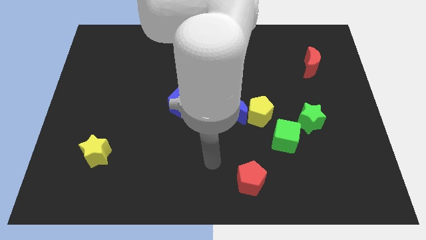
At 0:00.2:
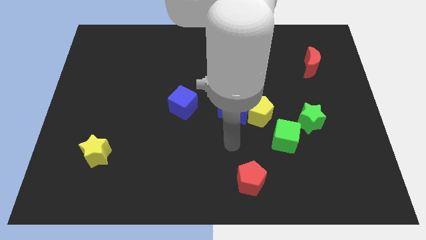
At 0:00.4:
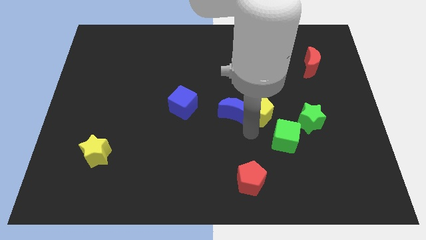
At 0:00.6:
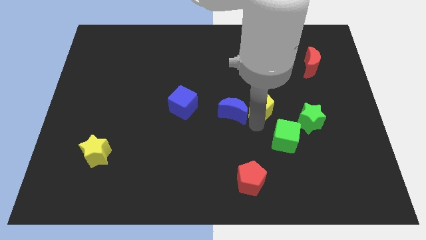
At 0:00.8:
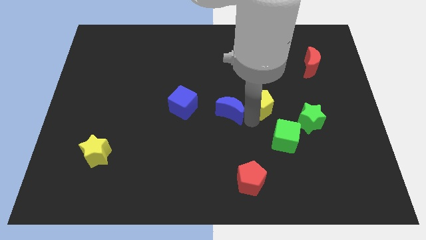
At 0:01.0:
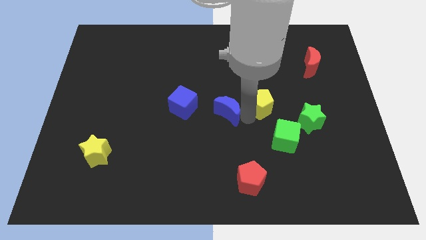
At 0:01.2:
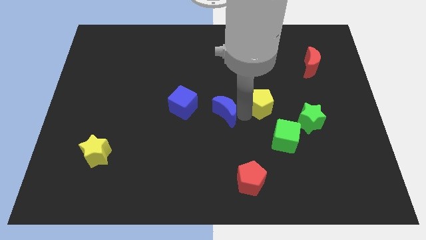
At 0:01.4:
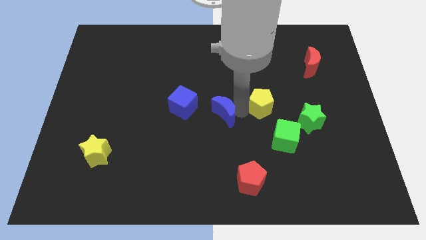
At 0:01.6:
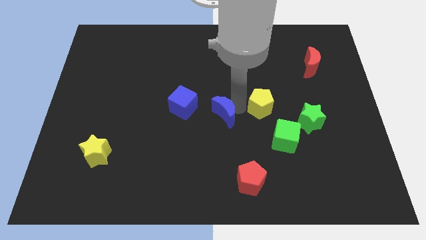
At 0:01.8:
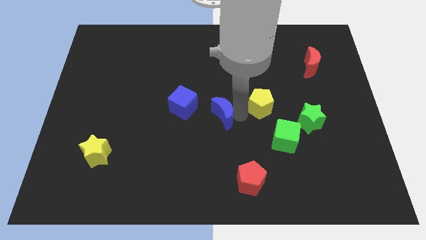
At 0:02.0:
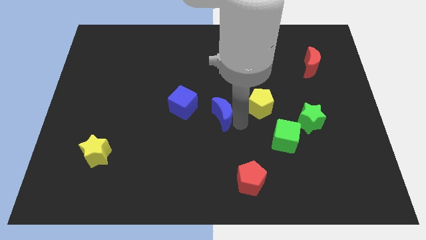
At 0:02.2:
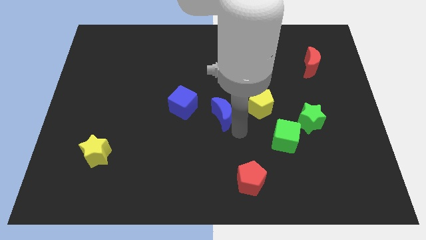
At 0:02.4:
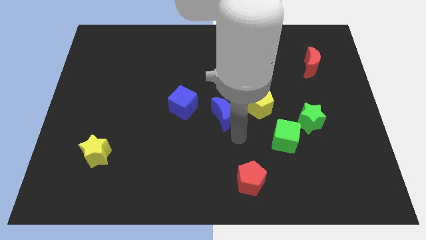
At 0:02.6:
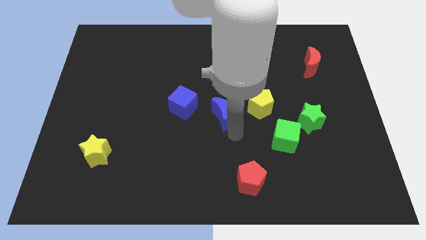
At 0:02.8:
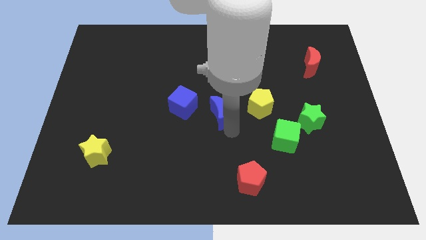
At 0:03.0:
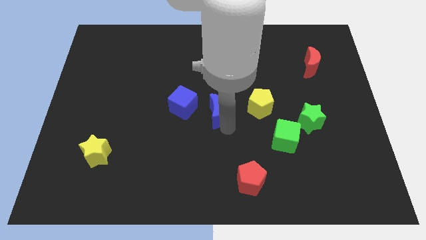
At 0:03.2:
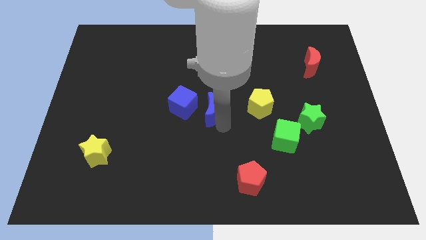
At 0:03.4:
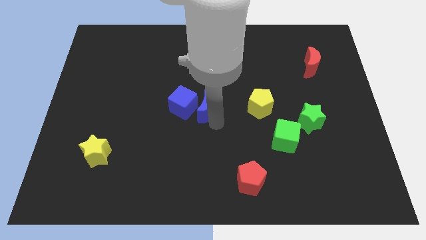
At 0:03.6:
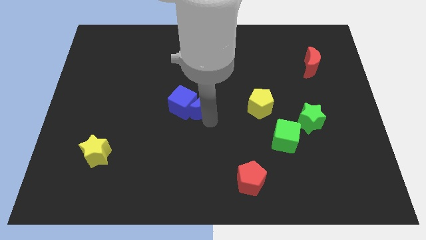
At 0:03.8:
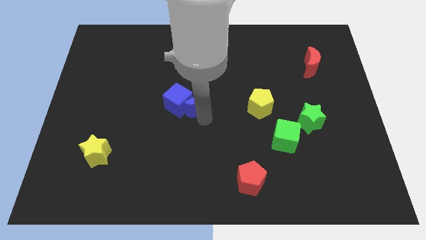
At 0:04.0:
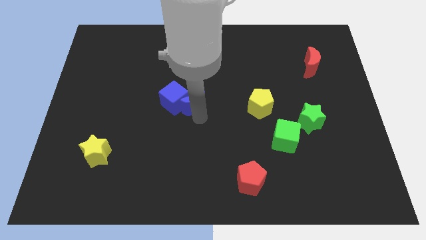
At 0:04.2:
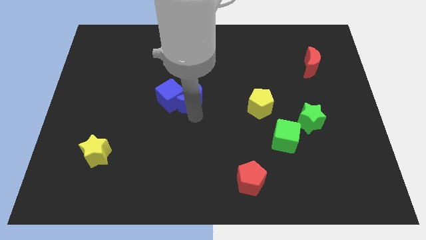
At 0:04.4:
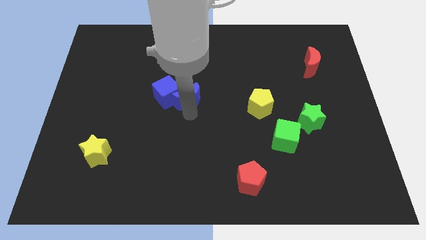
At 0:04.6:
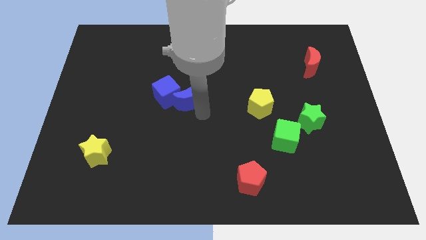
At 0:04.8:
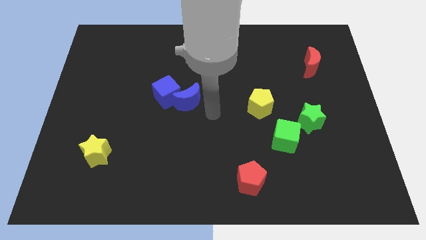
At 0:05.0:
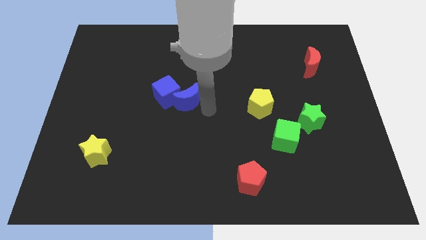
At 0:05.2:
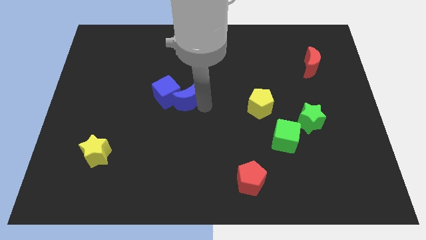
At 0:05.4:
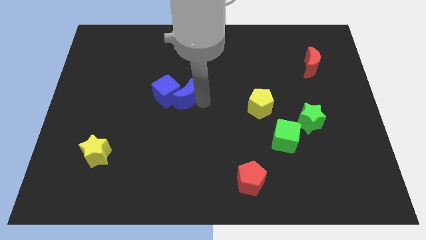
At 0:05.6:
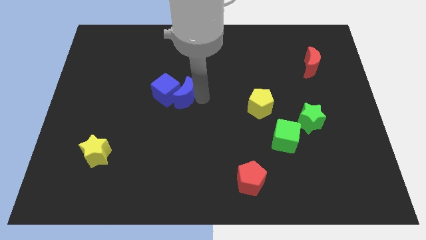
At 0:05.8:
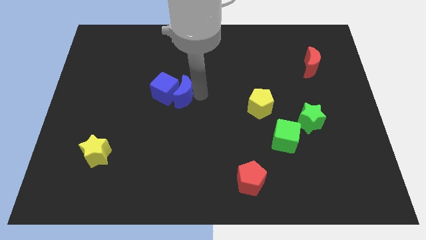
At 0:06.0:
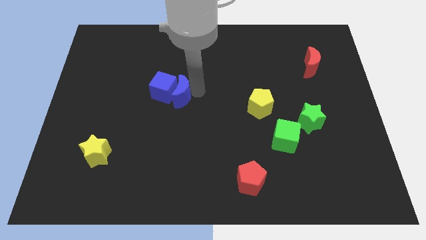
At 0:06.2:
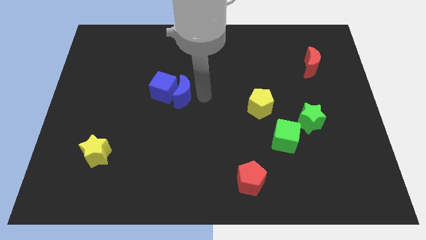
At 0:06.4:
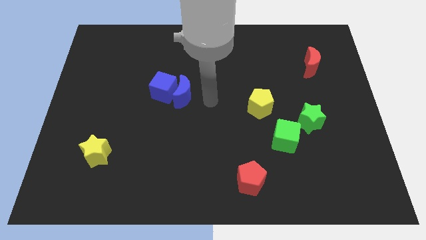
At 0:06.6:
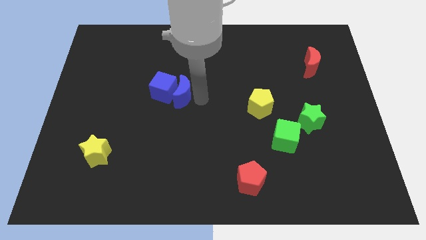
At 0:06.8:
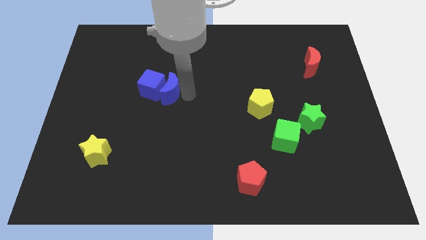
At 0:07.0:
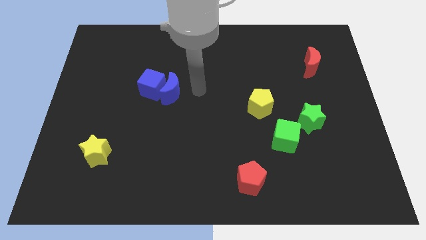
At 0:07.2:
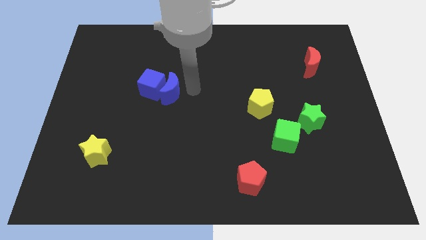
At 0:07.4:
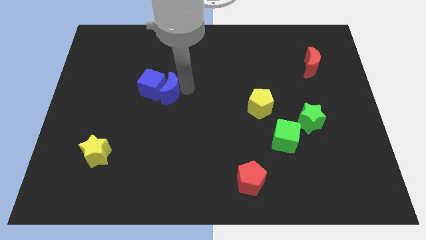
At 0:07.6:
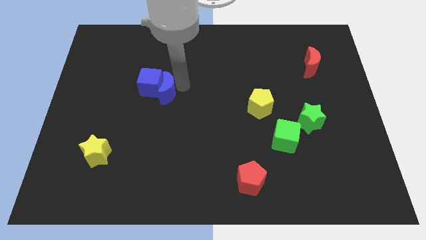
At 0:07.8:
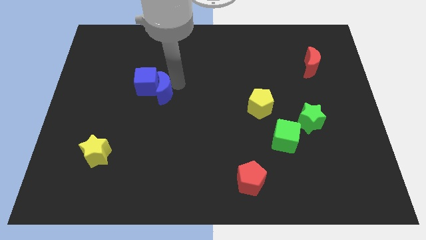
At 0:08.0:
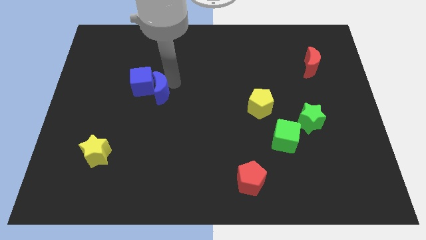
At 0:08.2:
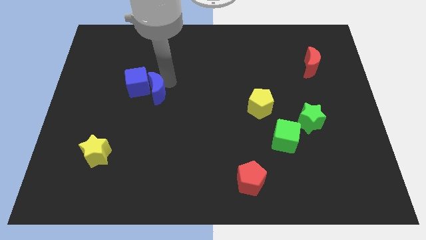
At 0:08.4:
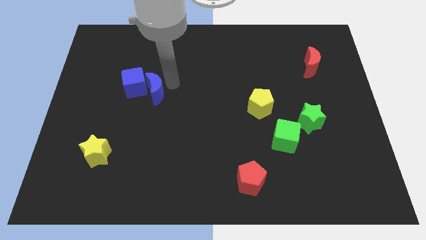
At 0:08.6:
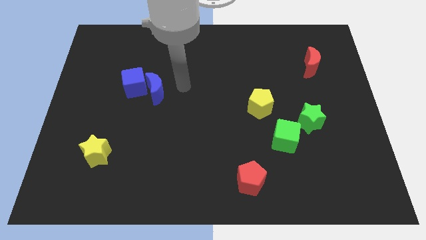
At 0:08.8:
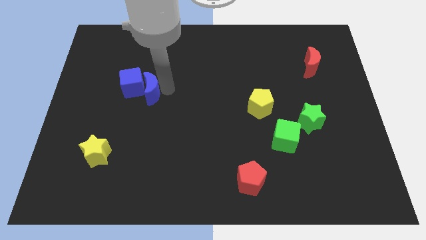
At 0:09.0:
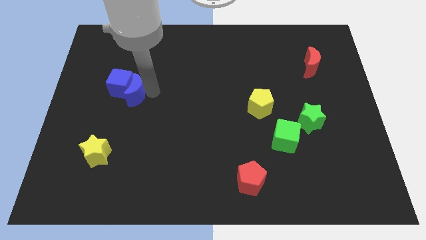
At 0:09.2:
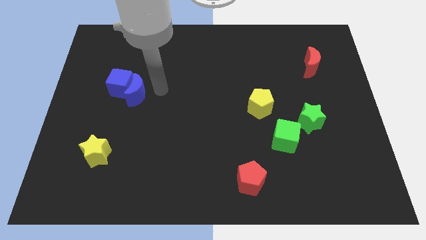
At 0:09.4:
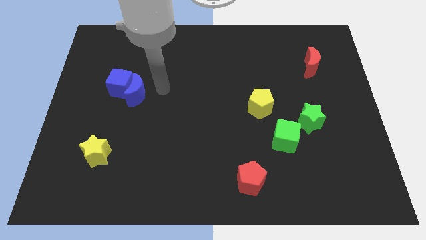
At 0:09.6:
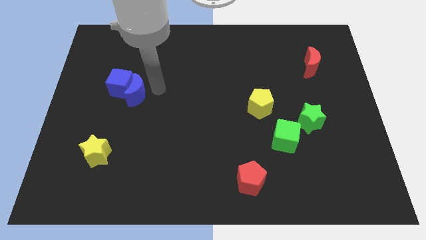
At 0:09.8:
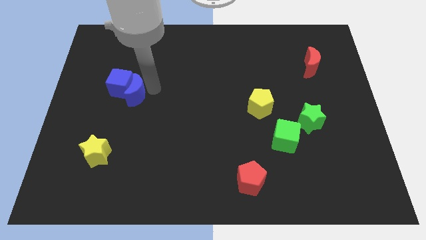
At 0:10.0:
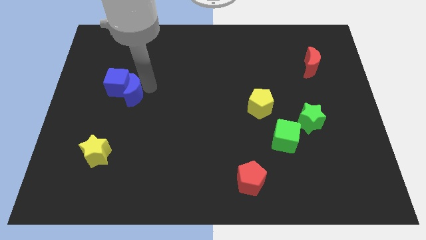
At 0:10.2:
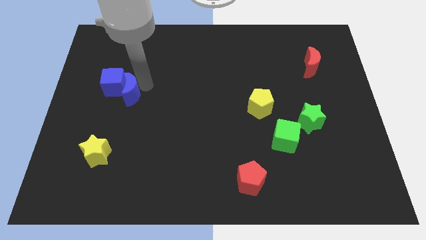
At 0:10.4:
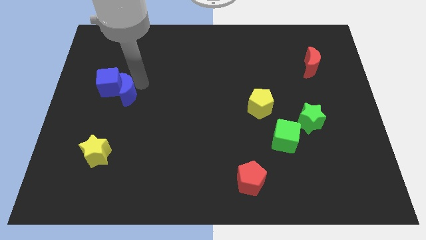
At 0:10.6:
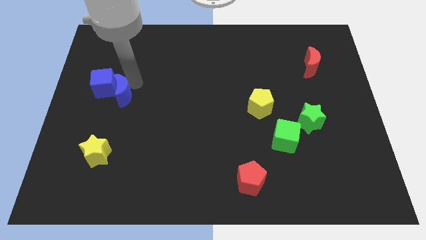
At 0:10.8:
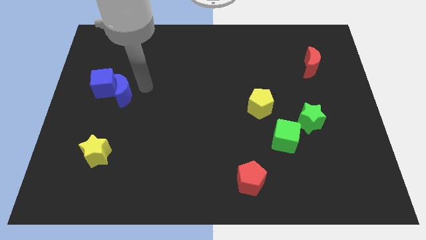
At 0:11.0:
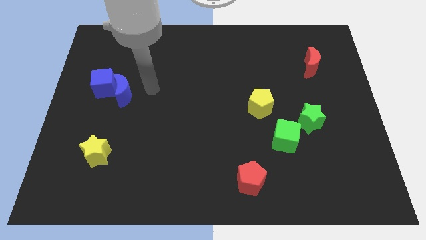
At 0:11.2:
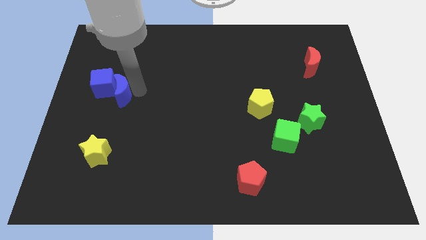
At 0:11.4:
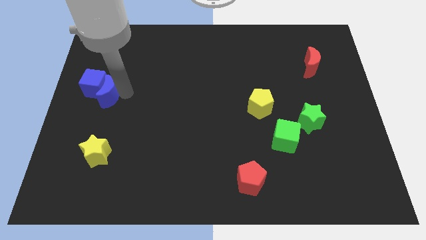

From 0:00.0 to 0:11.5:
slide the blue moon to the left side of the board

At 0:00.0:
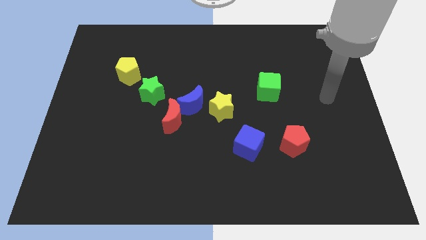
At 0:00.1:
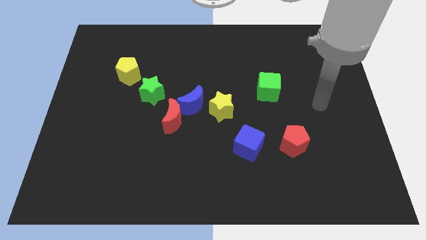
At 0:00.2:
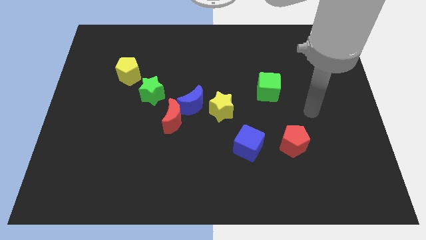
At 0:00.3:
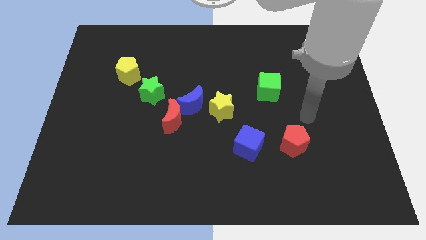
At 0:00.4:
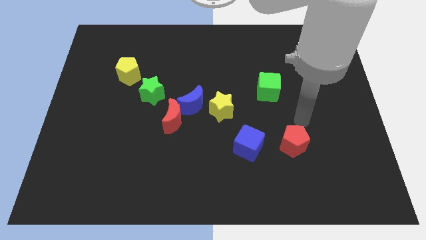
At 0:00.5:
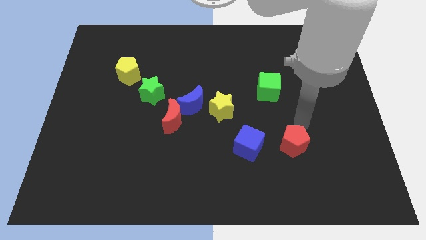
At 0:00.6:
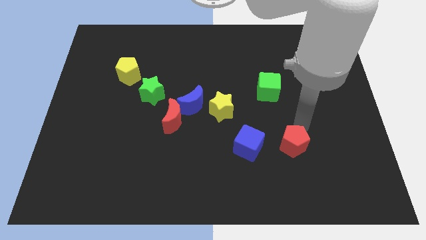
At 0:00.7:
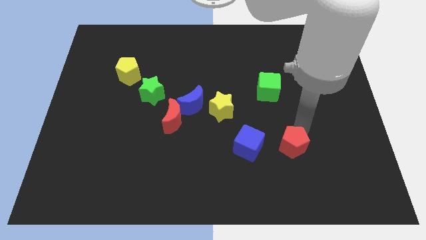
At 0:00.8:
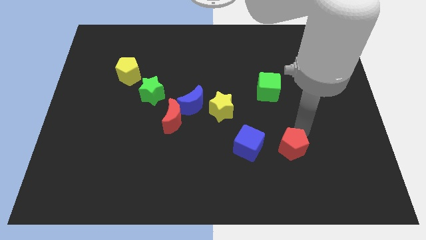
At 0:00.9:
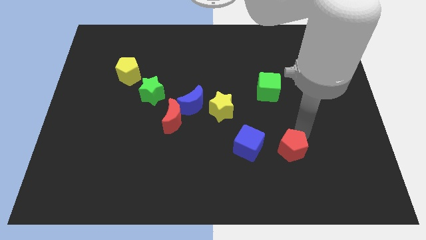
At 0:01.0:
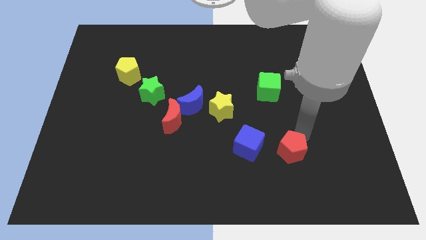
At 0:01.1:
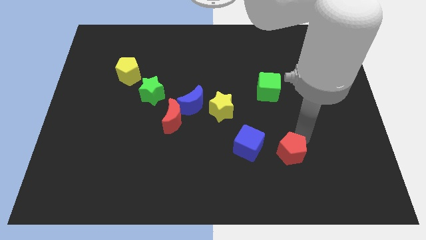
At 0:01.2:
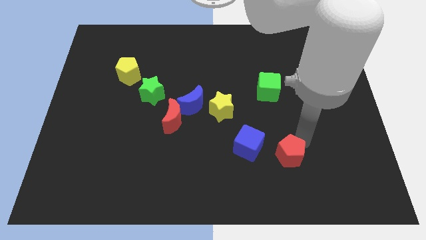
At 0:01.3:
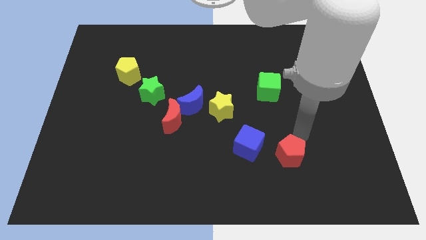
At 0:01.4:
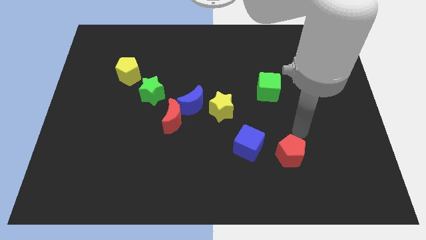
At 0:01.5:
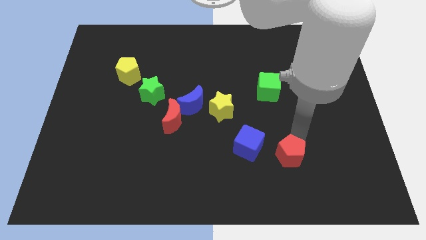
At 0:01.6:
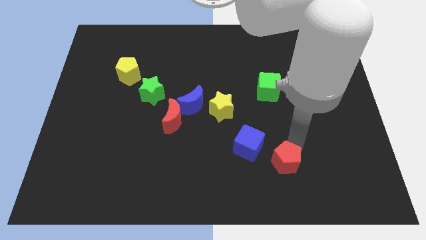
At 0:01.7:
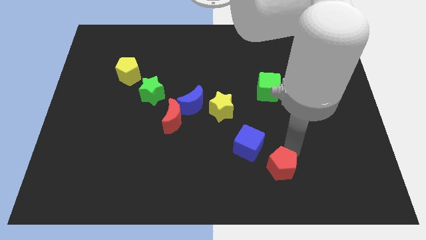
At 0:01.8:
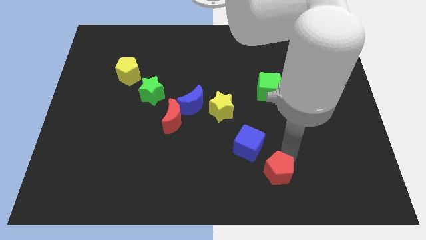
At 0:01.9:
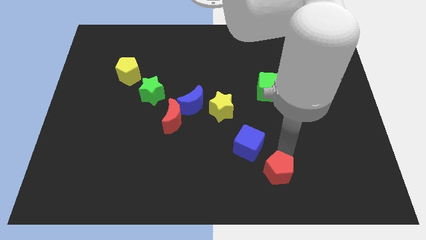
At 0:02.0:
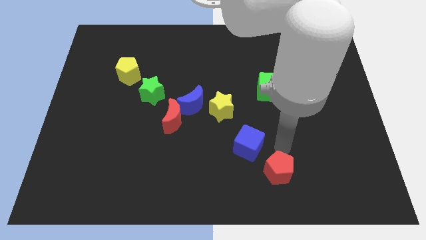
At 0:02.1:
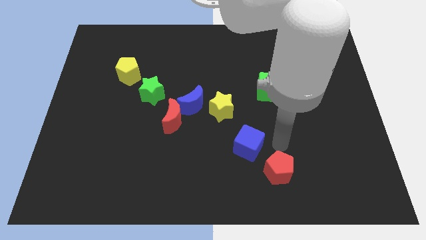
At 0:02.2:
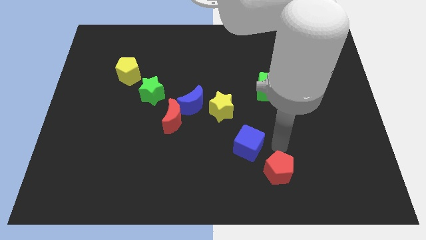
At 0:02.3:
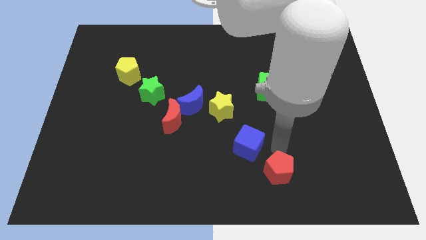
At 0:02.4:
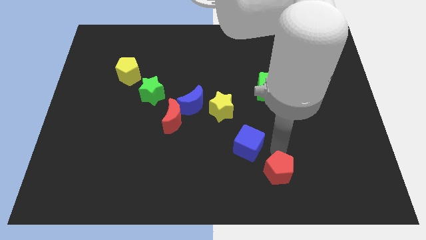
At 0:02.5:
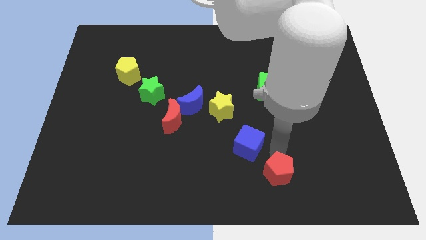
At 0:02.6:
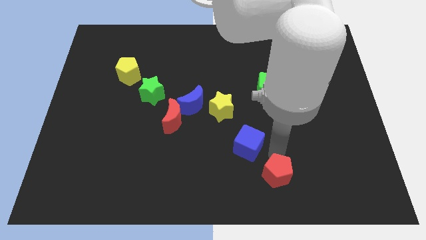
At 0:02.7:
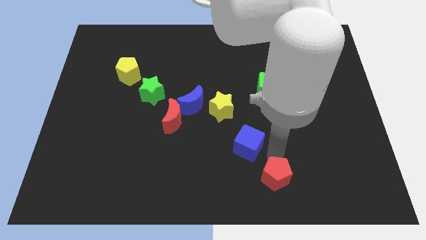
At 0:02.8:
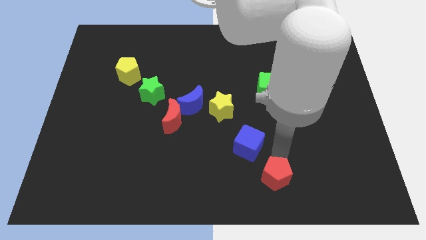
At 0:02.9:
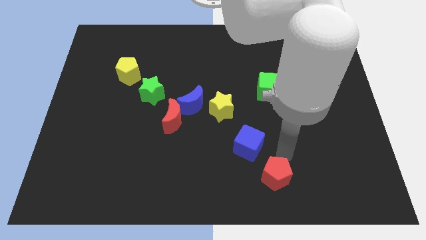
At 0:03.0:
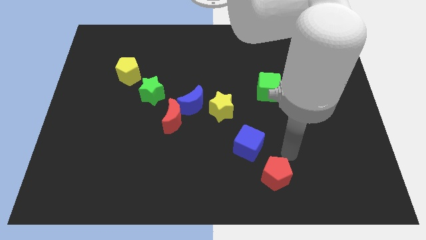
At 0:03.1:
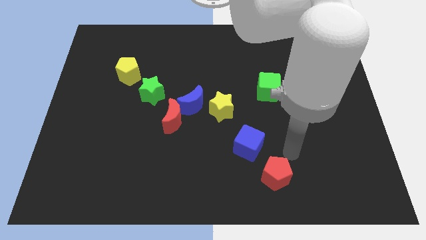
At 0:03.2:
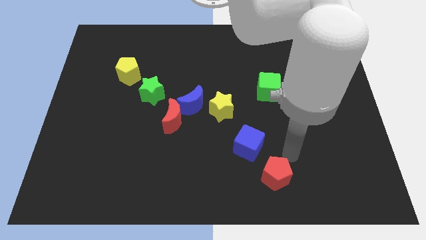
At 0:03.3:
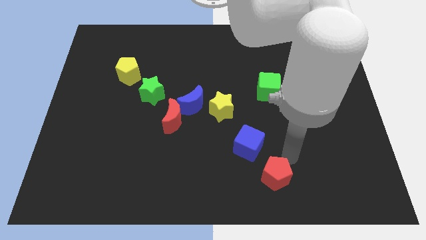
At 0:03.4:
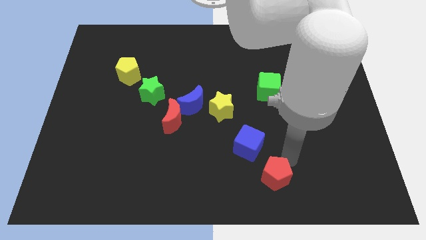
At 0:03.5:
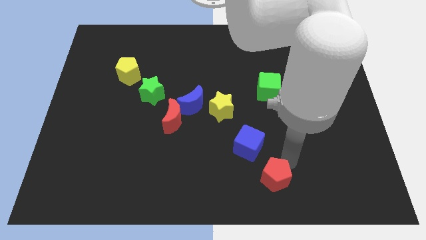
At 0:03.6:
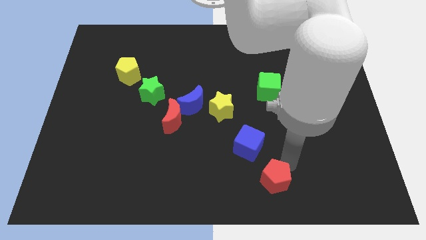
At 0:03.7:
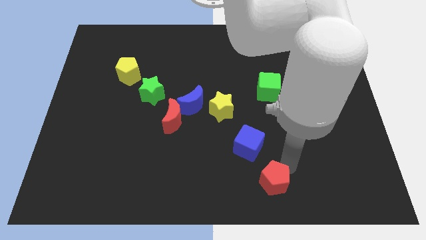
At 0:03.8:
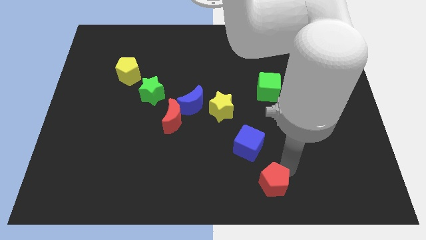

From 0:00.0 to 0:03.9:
slide the red pentagon to the bottom
